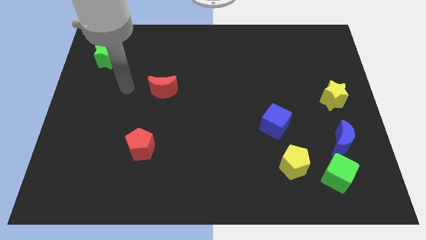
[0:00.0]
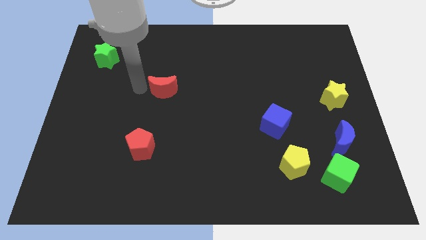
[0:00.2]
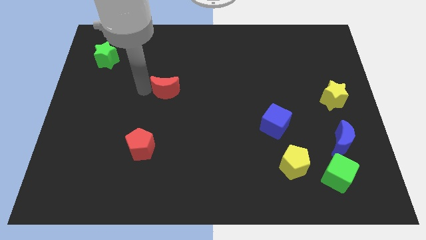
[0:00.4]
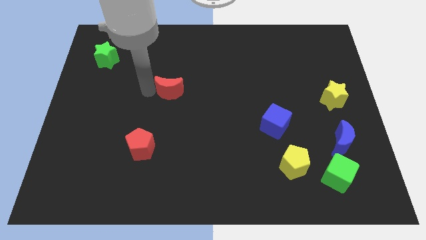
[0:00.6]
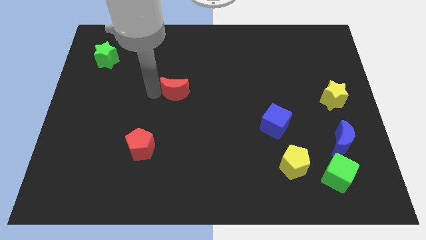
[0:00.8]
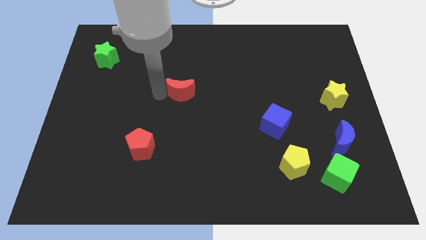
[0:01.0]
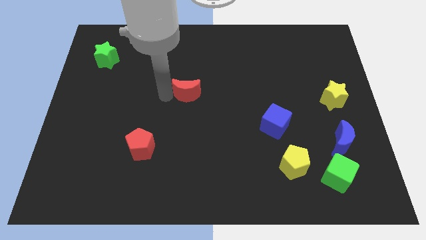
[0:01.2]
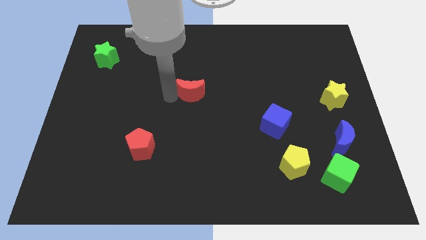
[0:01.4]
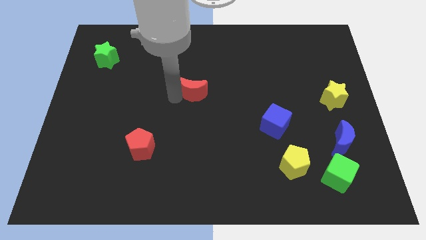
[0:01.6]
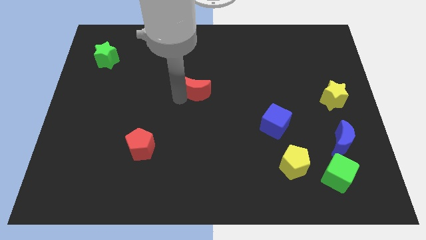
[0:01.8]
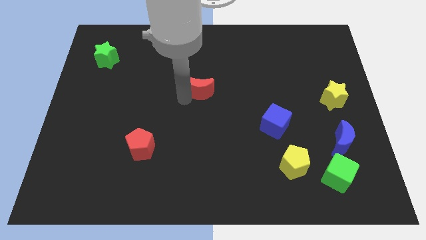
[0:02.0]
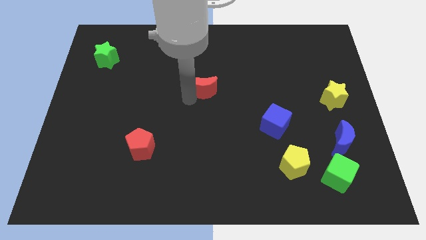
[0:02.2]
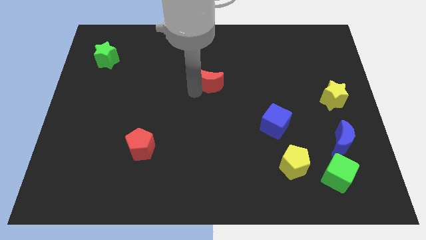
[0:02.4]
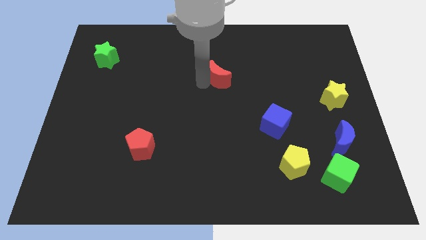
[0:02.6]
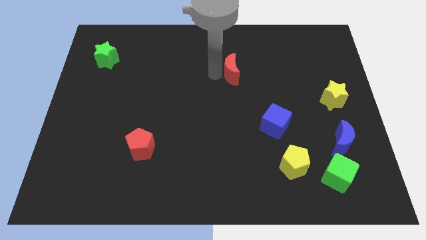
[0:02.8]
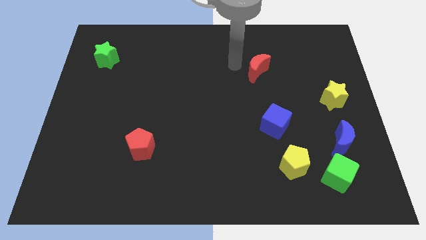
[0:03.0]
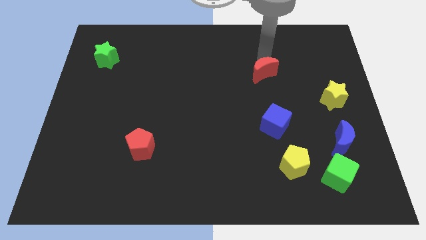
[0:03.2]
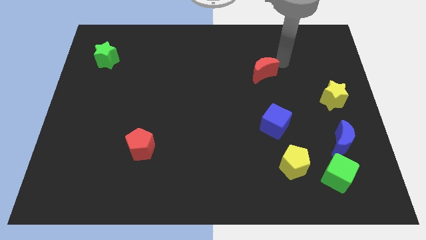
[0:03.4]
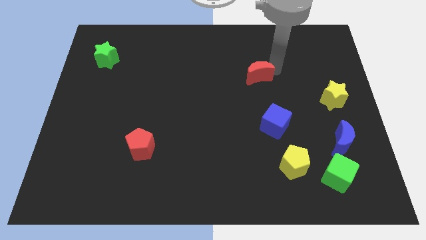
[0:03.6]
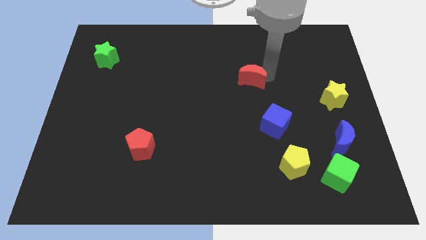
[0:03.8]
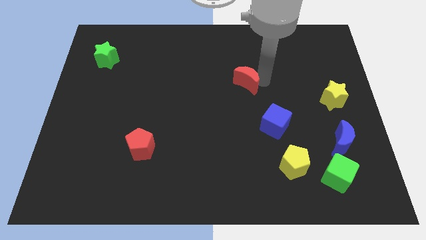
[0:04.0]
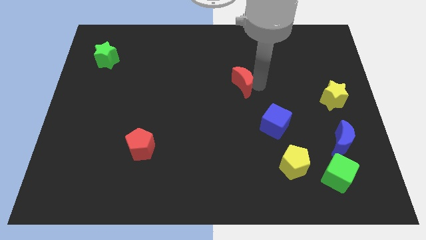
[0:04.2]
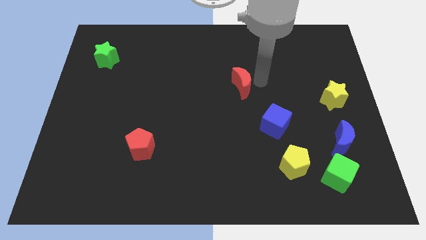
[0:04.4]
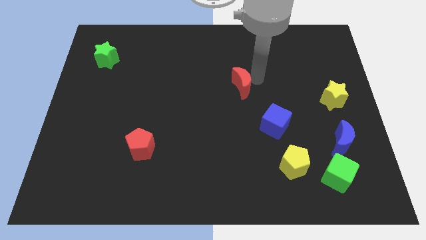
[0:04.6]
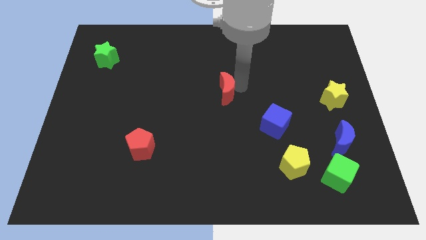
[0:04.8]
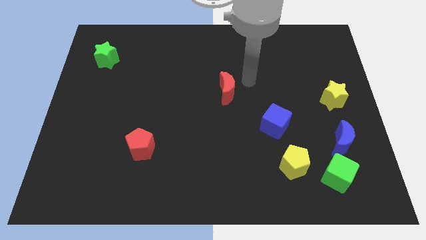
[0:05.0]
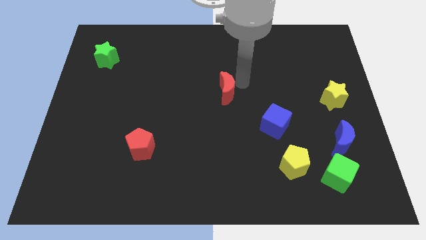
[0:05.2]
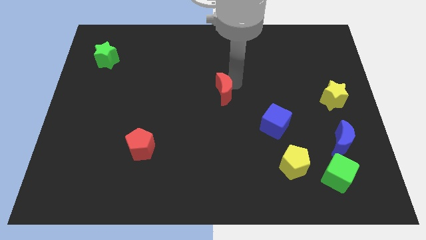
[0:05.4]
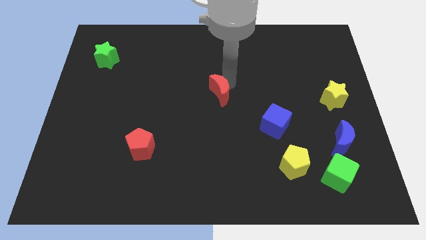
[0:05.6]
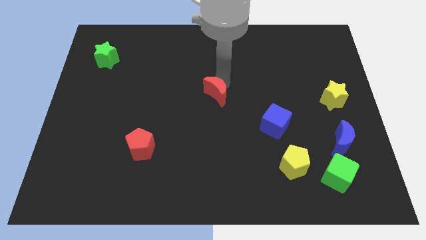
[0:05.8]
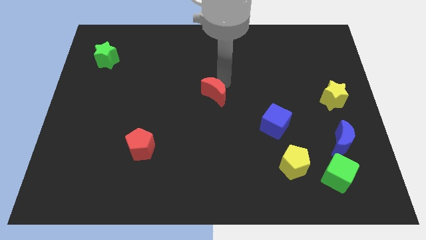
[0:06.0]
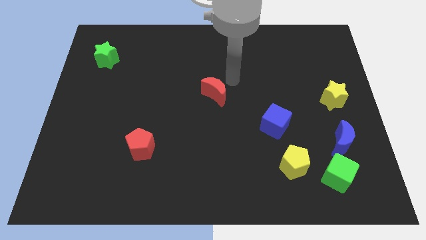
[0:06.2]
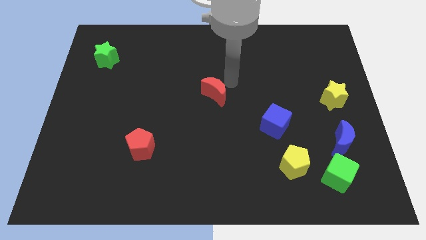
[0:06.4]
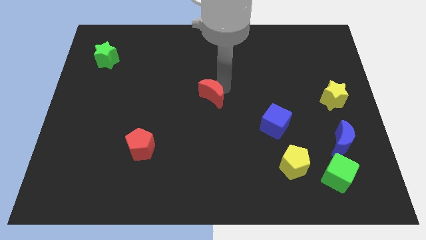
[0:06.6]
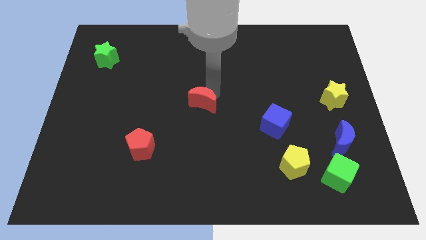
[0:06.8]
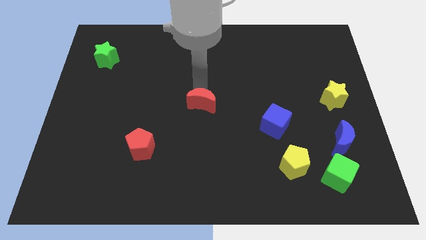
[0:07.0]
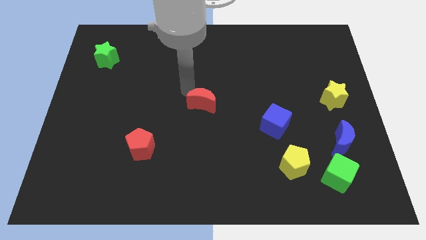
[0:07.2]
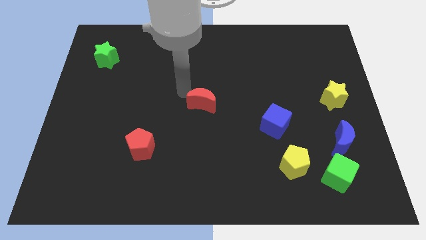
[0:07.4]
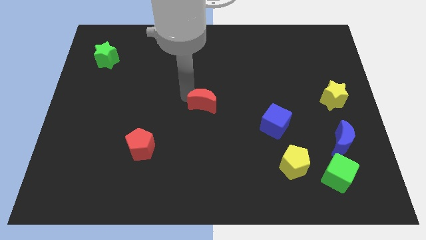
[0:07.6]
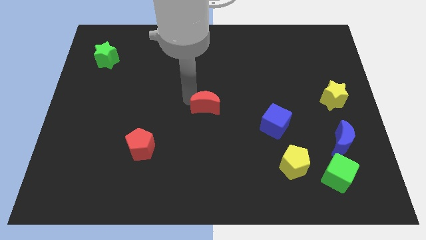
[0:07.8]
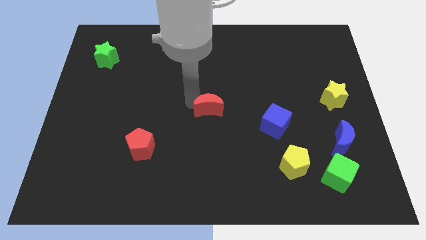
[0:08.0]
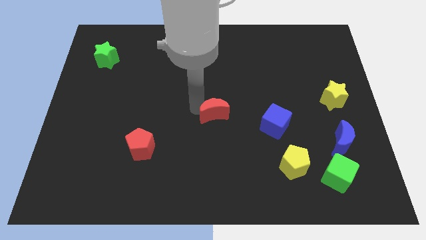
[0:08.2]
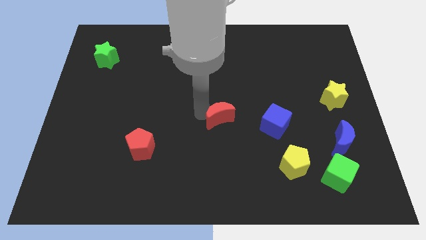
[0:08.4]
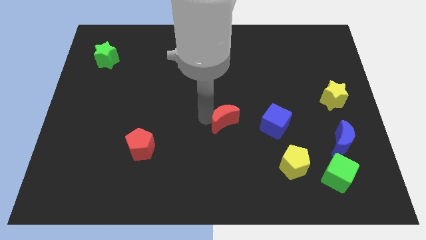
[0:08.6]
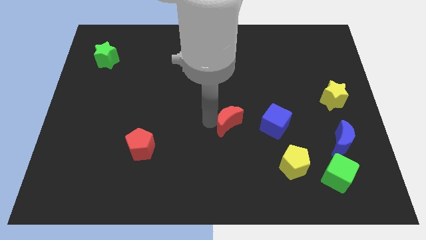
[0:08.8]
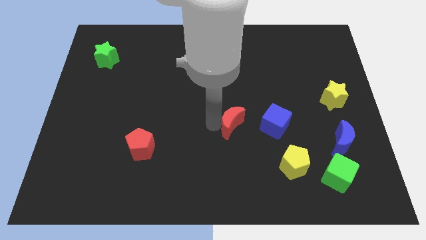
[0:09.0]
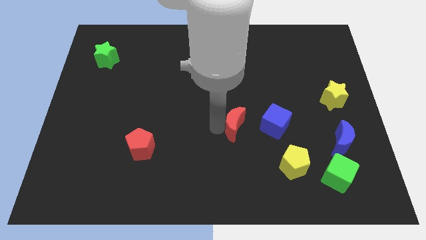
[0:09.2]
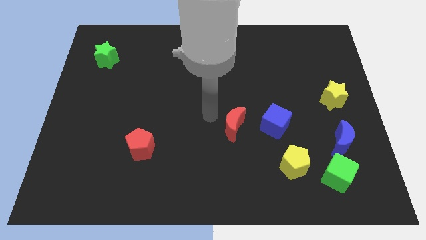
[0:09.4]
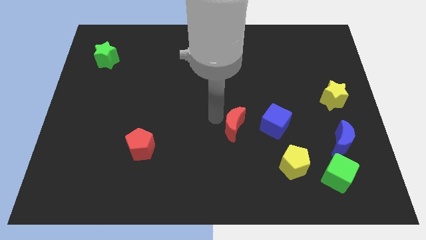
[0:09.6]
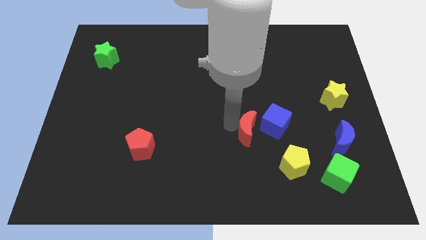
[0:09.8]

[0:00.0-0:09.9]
slide the red moon to the top left of the yellow pentagon
